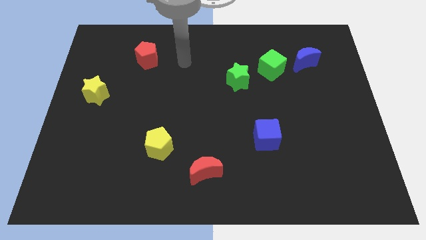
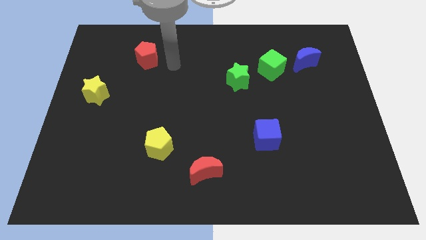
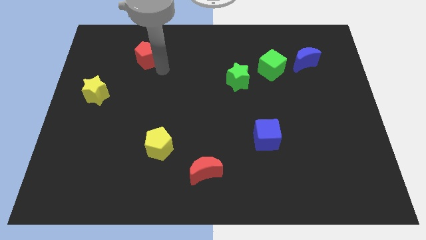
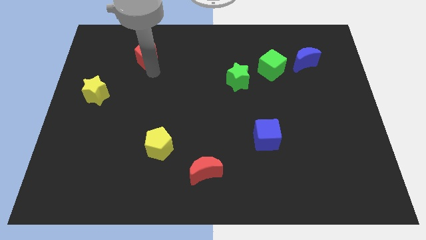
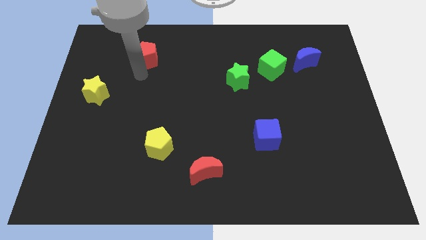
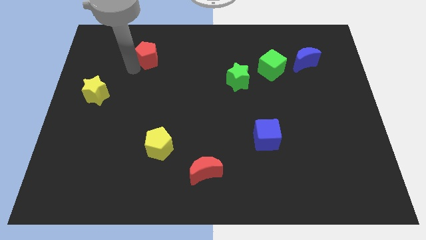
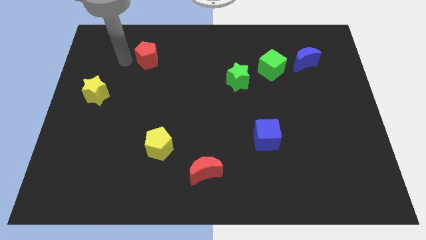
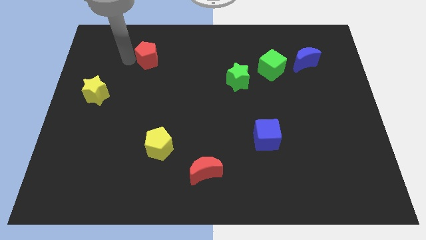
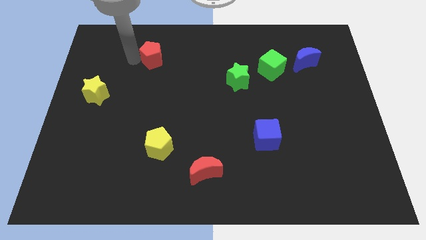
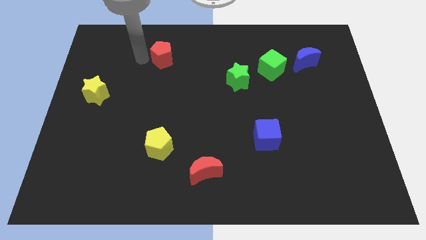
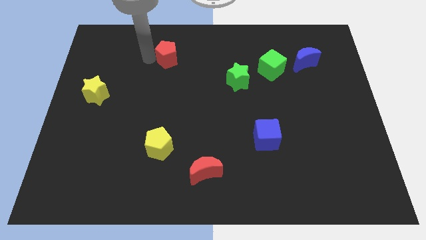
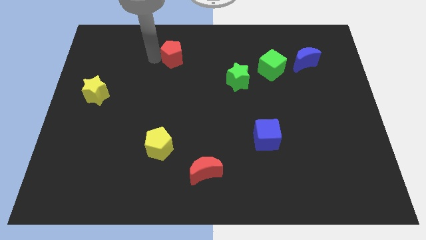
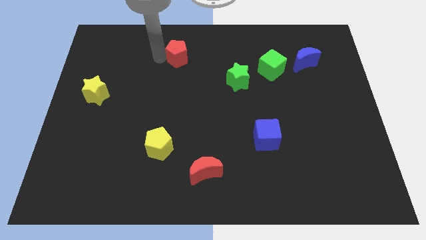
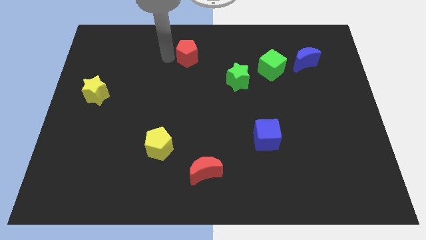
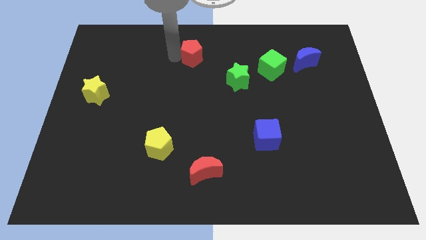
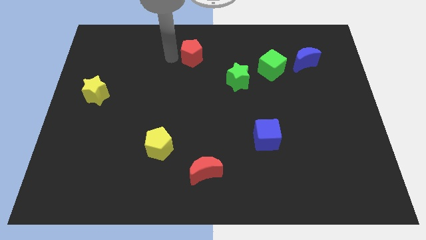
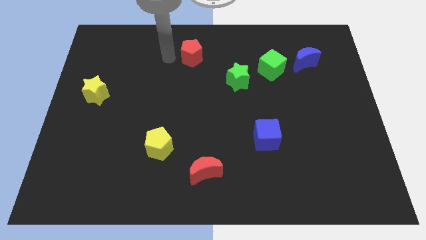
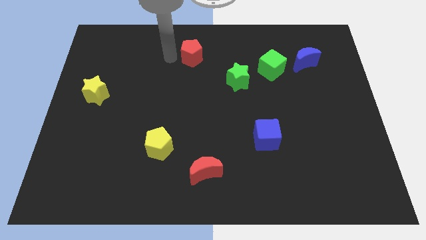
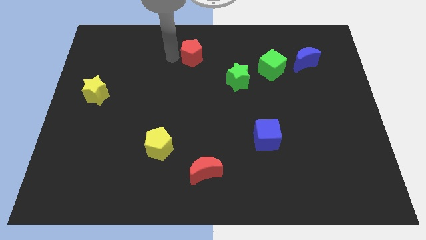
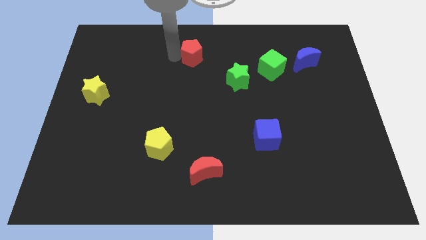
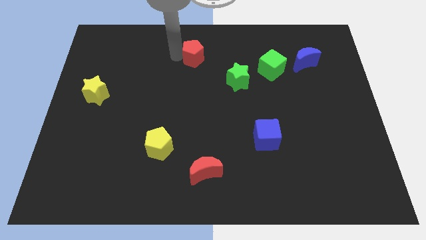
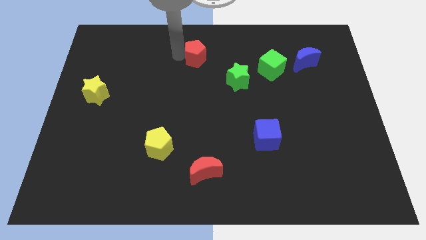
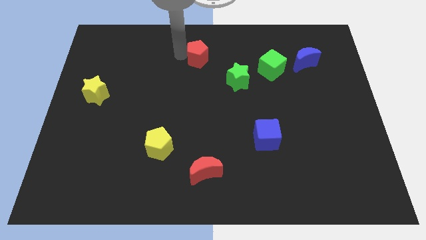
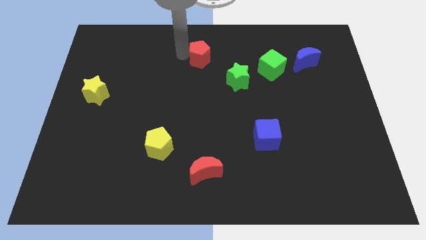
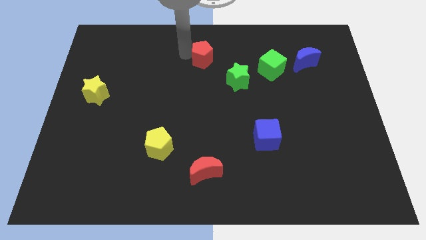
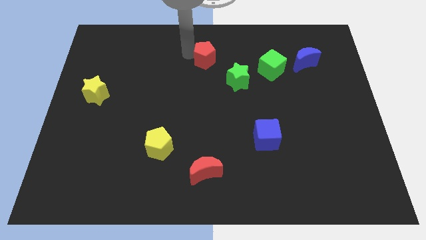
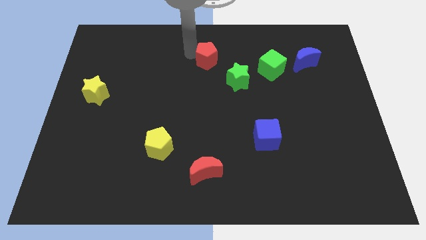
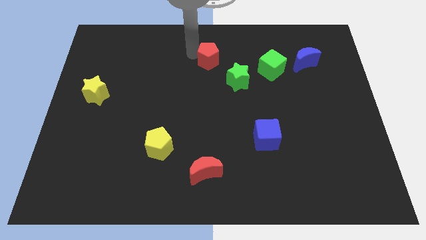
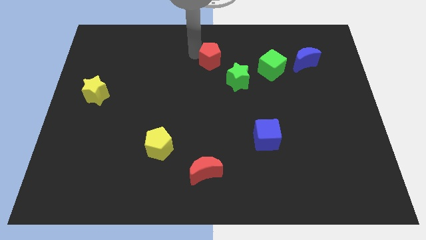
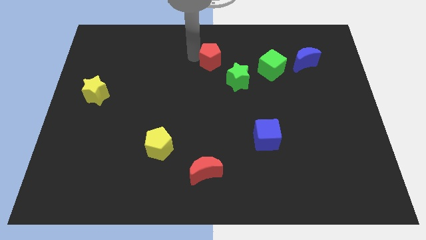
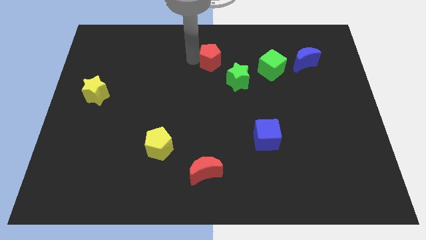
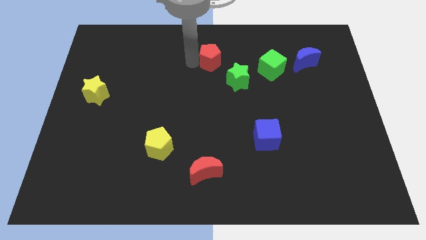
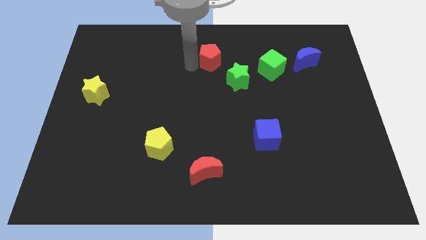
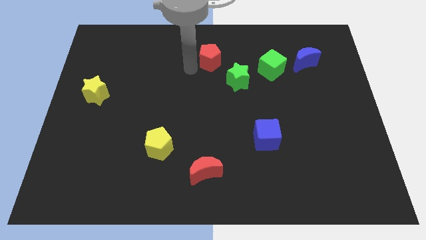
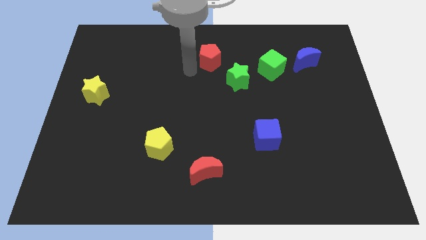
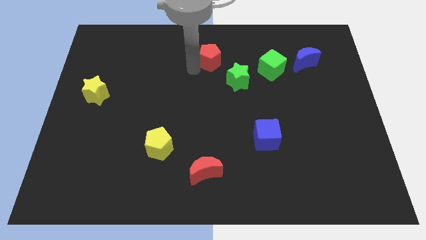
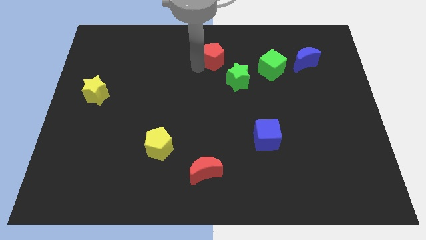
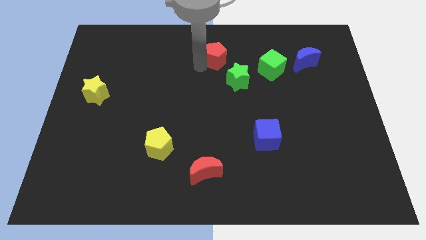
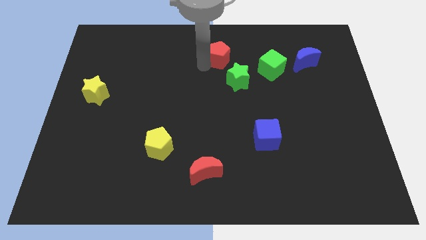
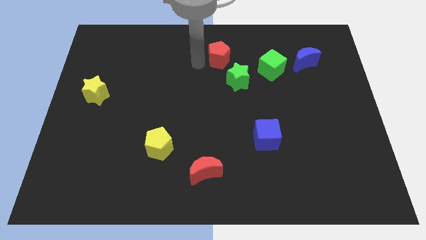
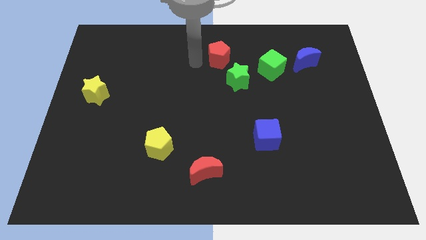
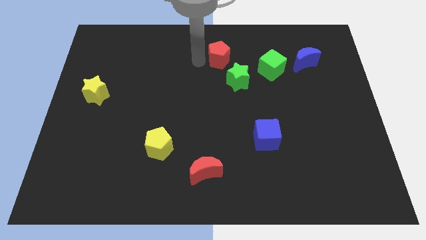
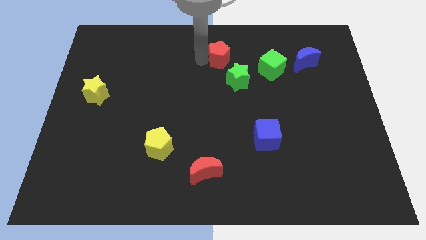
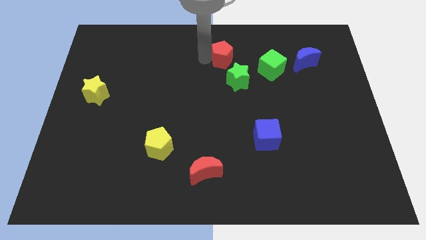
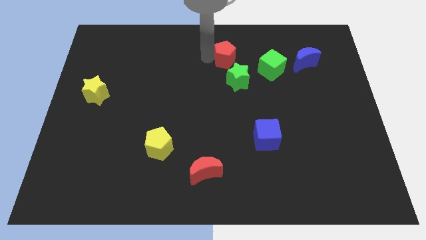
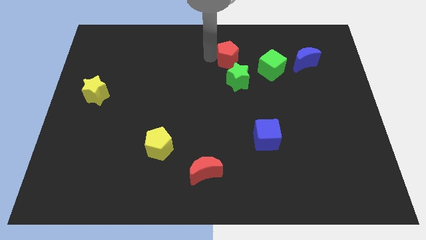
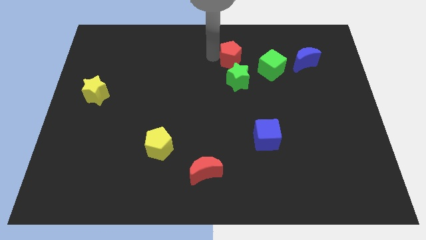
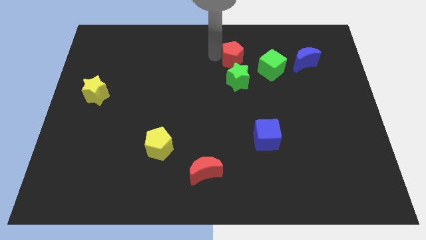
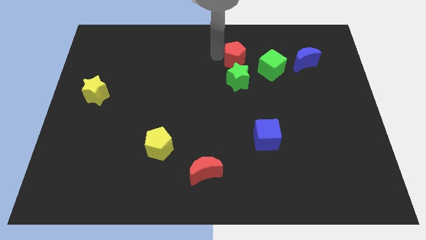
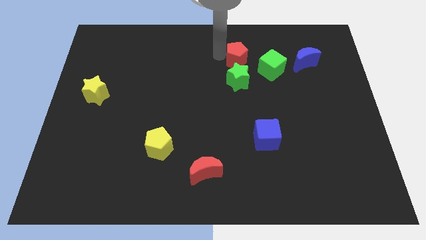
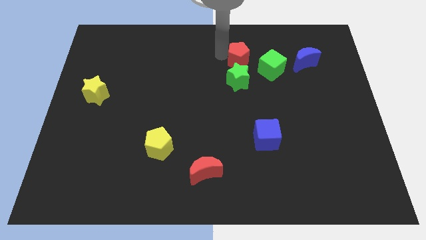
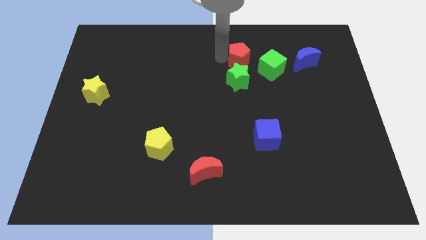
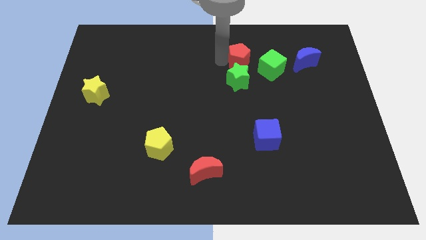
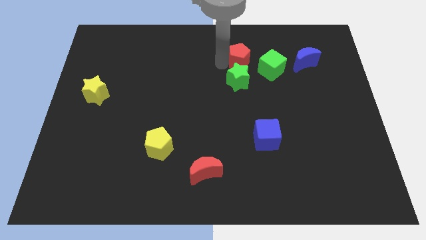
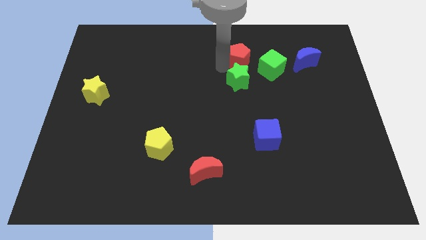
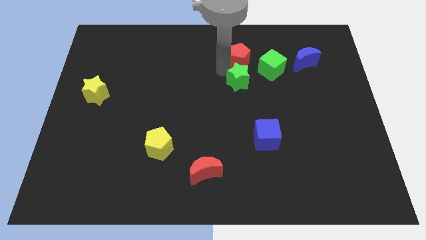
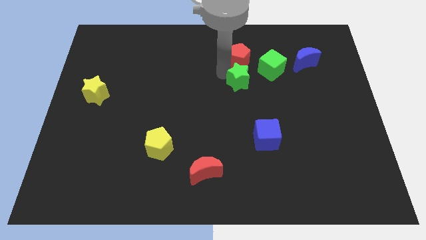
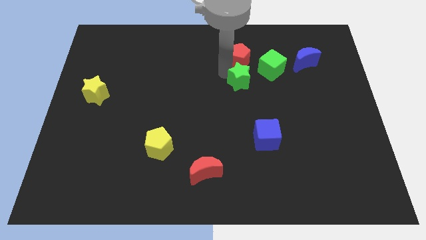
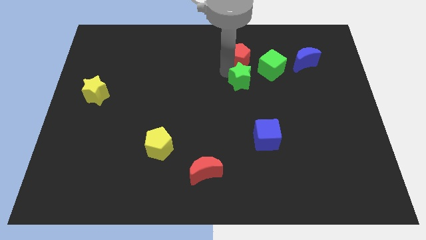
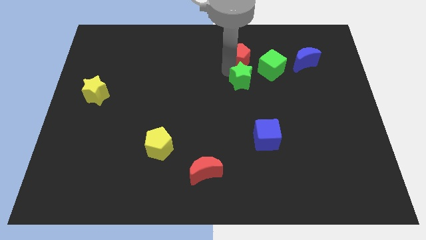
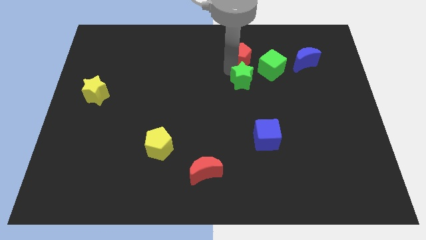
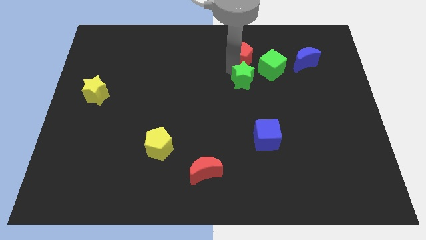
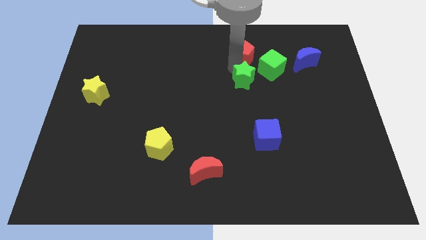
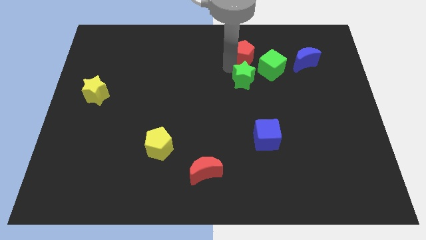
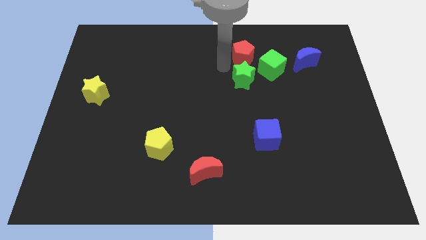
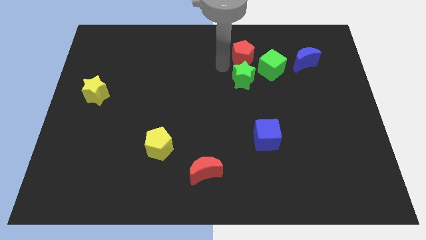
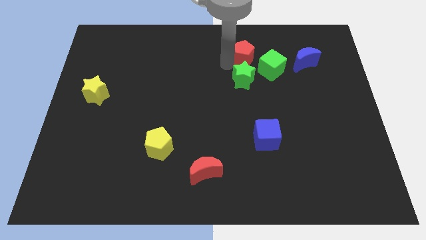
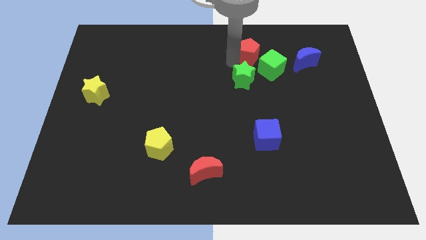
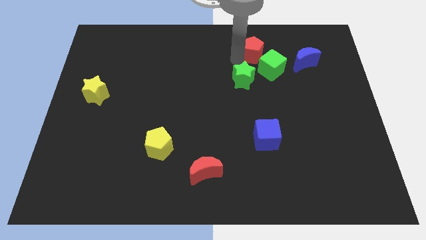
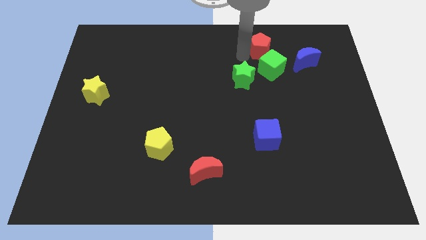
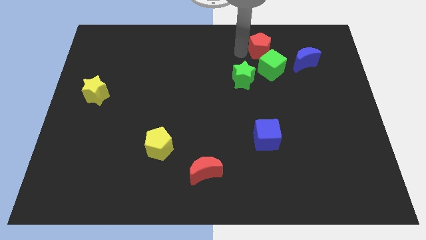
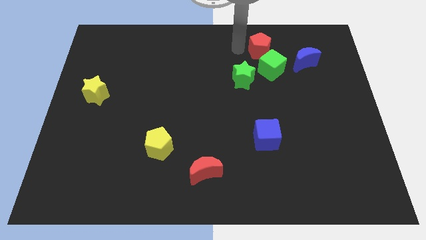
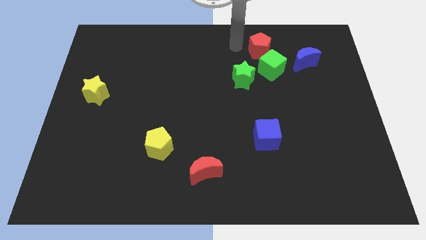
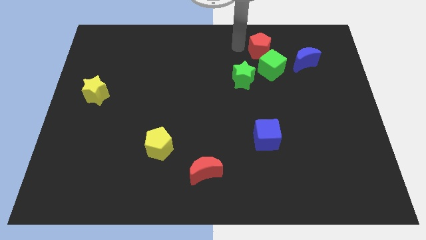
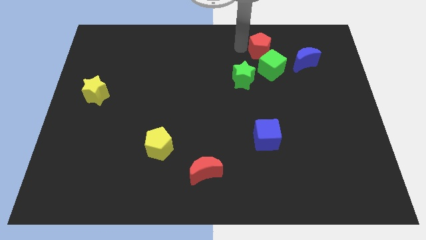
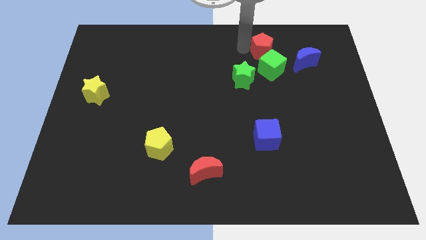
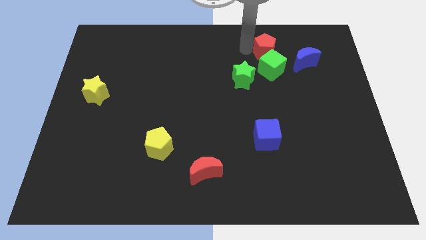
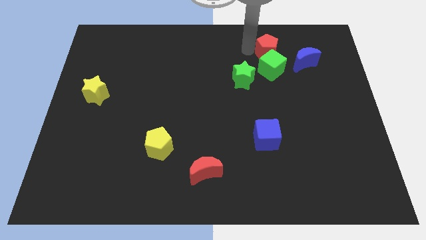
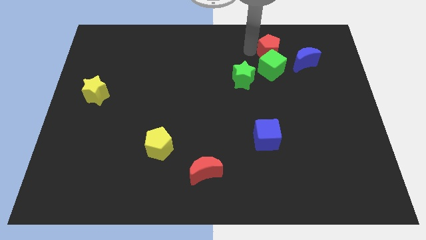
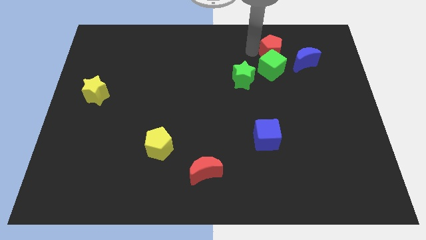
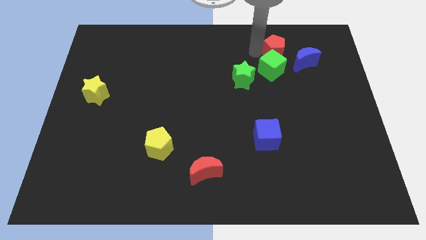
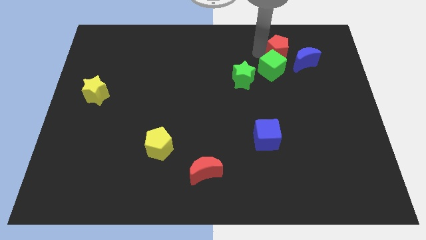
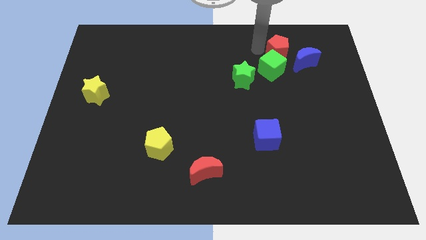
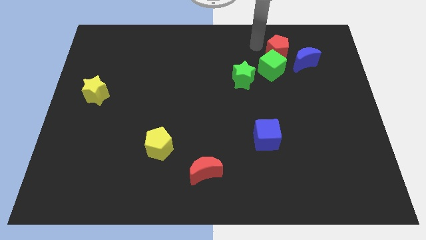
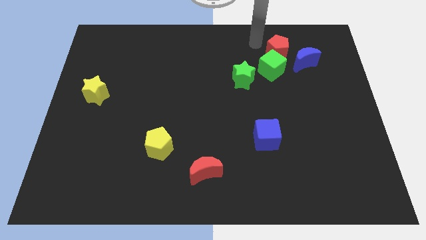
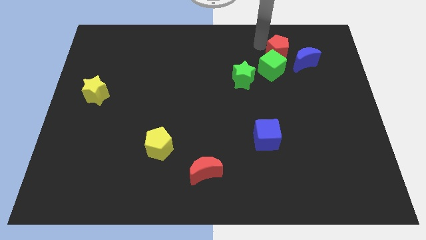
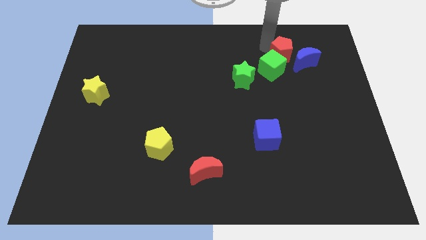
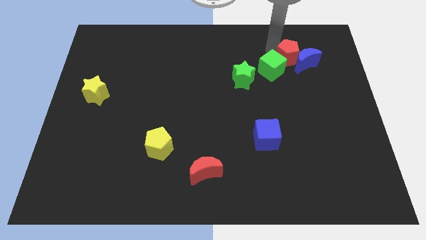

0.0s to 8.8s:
push the red pentagon to the blue moon
